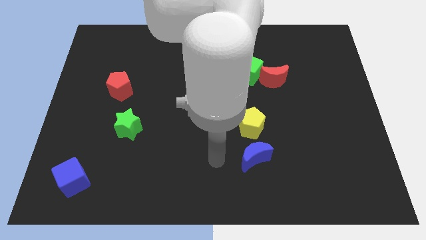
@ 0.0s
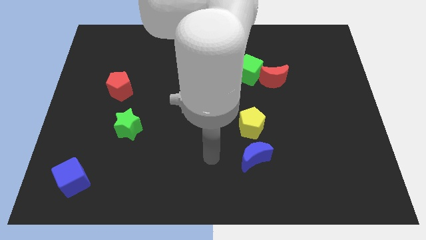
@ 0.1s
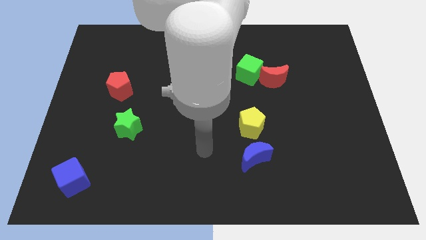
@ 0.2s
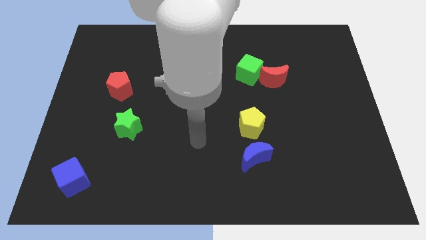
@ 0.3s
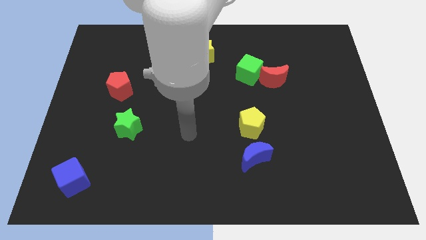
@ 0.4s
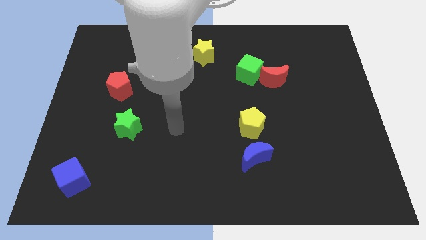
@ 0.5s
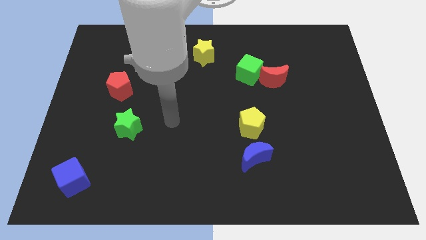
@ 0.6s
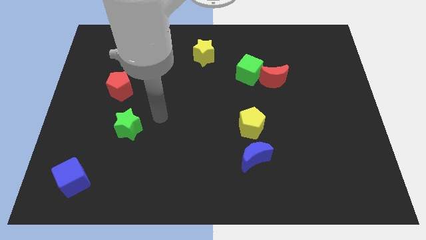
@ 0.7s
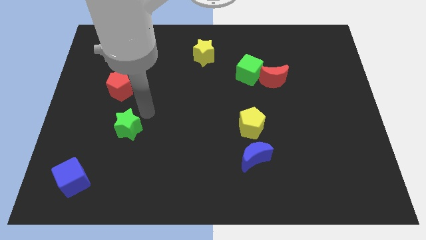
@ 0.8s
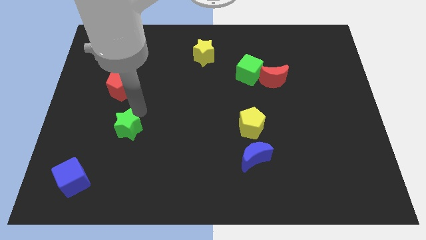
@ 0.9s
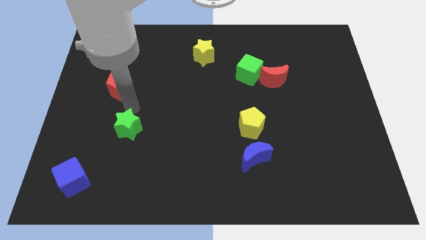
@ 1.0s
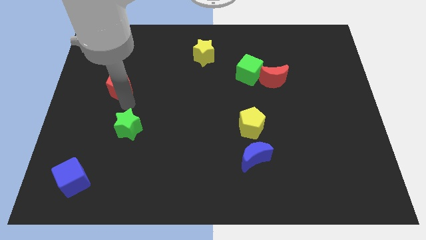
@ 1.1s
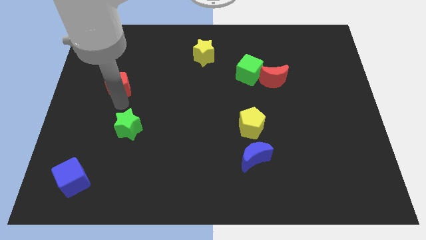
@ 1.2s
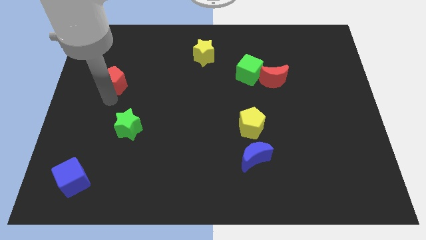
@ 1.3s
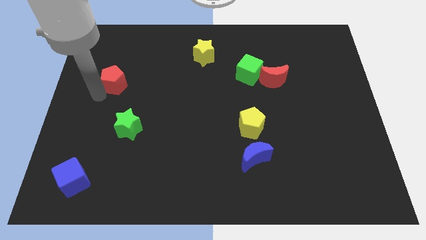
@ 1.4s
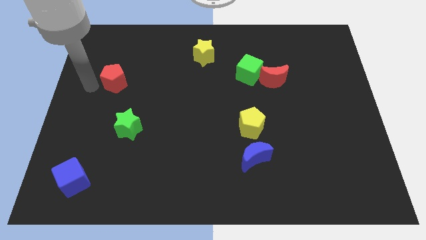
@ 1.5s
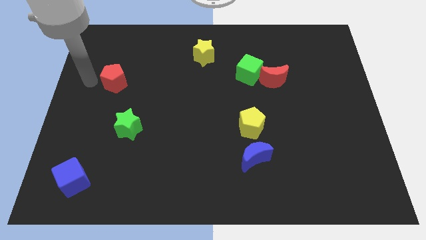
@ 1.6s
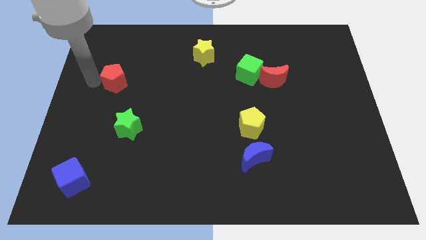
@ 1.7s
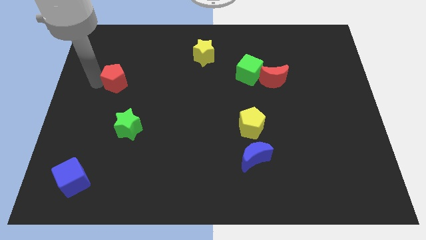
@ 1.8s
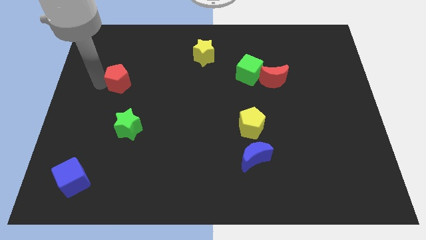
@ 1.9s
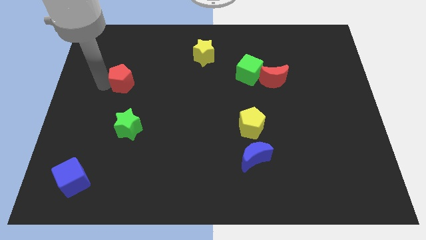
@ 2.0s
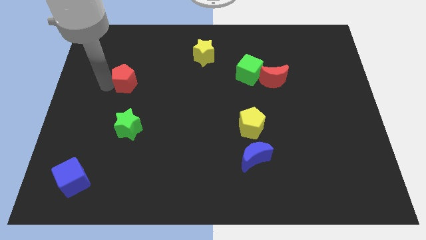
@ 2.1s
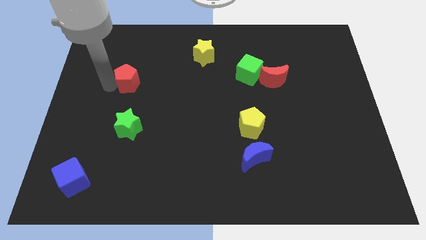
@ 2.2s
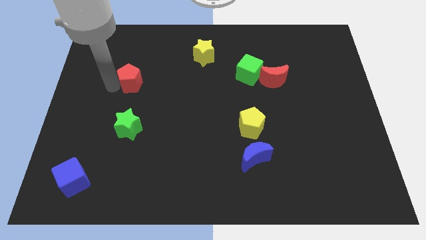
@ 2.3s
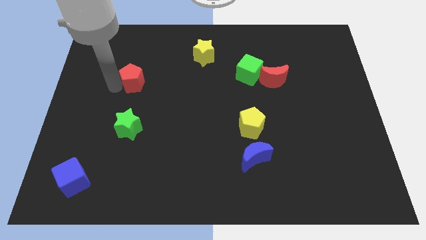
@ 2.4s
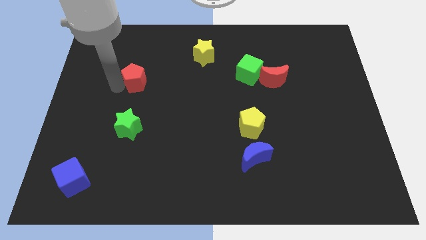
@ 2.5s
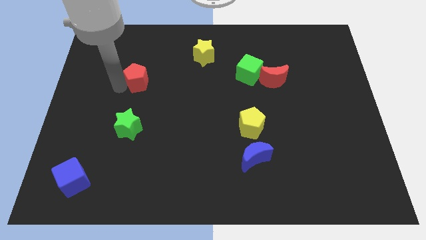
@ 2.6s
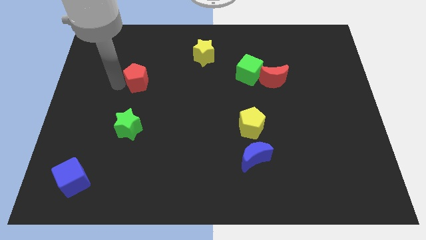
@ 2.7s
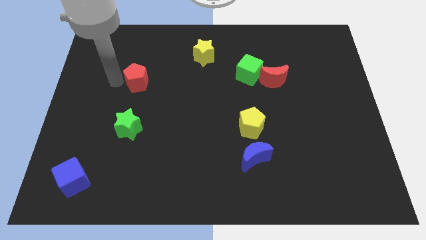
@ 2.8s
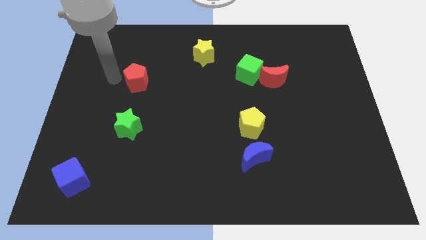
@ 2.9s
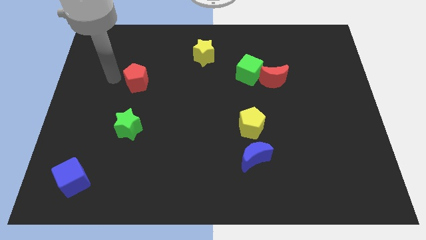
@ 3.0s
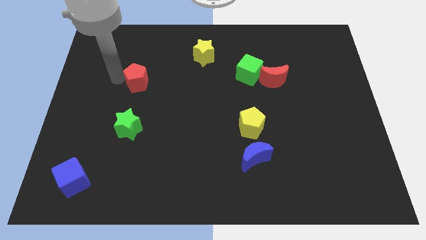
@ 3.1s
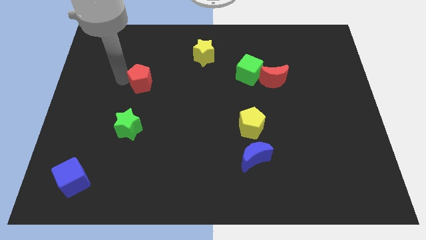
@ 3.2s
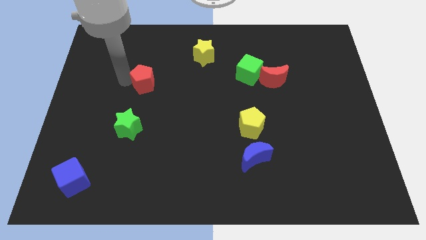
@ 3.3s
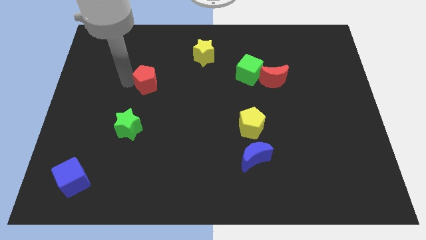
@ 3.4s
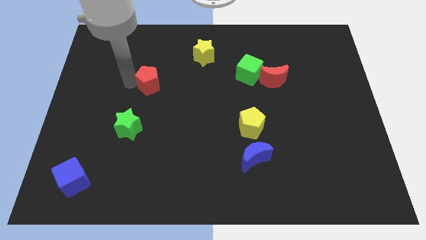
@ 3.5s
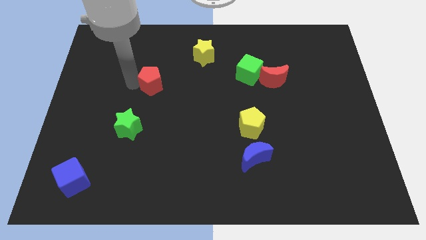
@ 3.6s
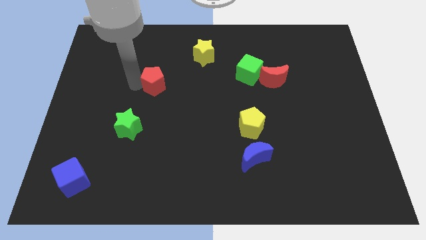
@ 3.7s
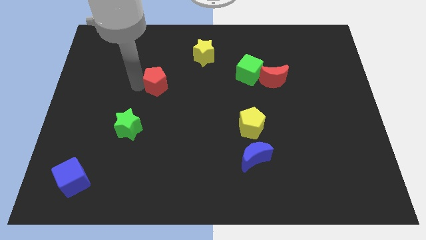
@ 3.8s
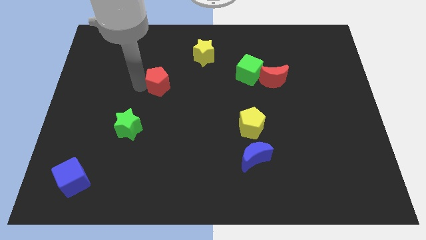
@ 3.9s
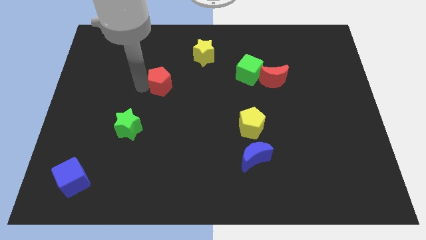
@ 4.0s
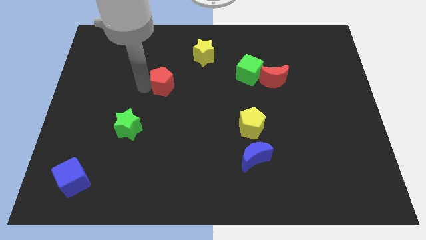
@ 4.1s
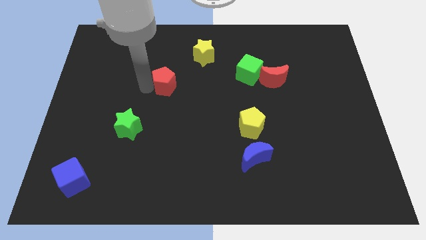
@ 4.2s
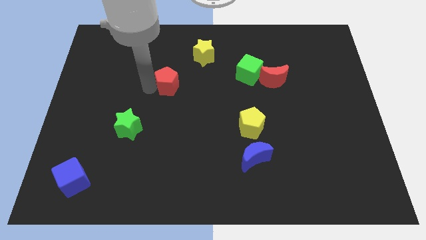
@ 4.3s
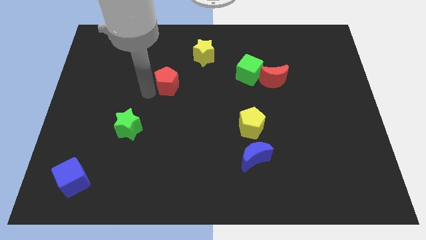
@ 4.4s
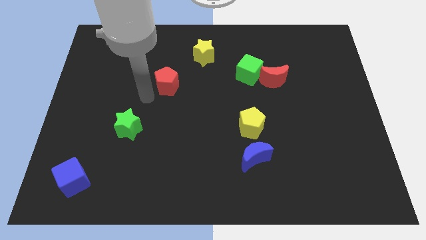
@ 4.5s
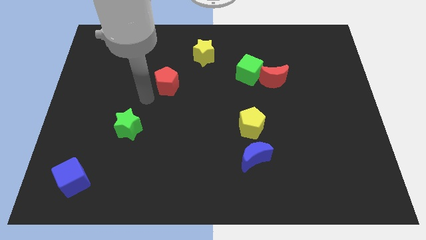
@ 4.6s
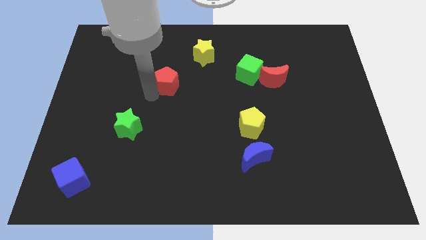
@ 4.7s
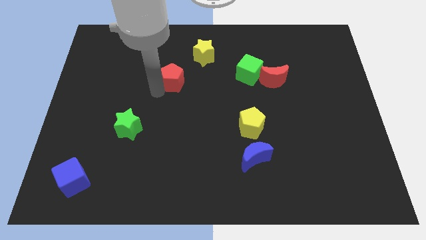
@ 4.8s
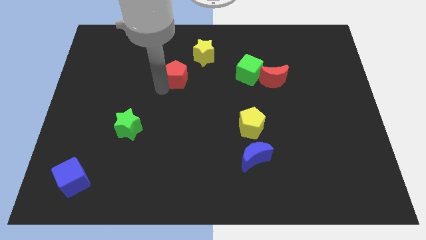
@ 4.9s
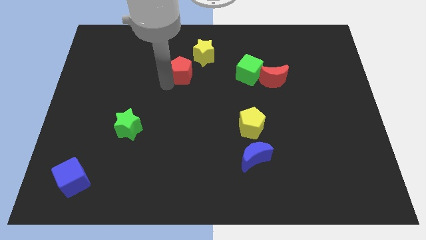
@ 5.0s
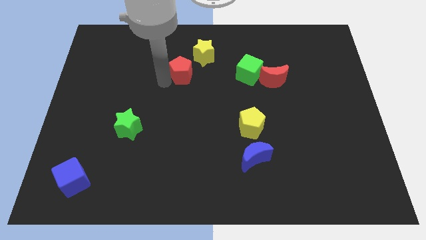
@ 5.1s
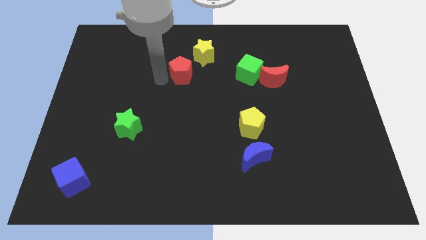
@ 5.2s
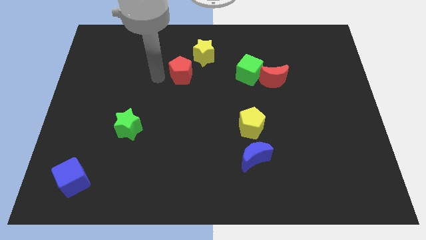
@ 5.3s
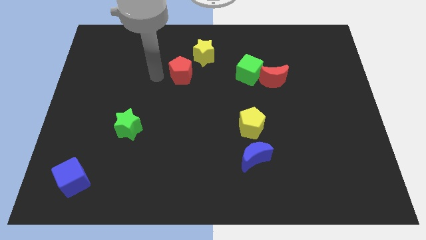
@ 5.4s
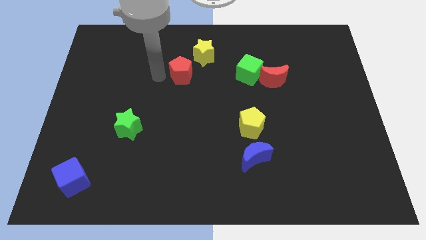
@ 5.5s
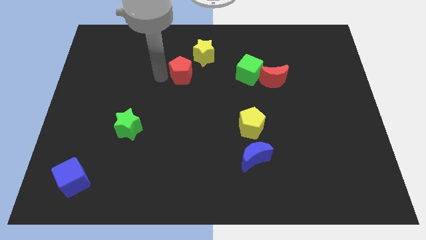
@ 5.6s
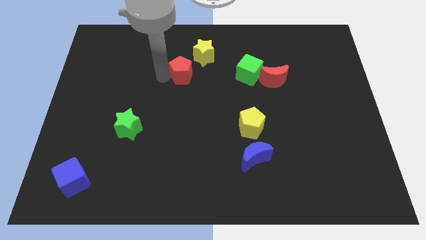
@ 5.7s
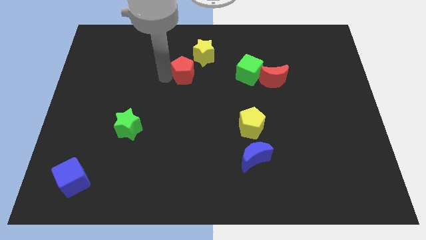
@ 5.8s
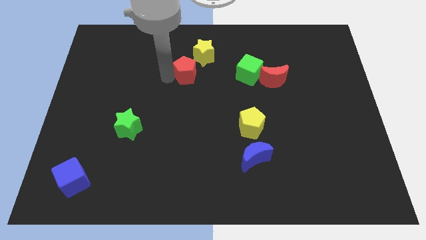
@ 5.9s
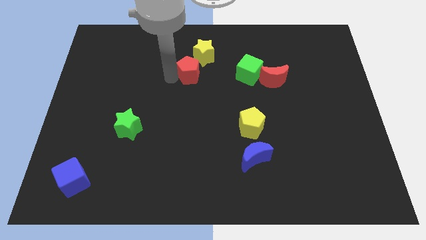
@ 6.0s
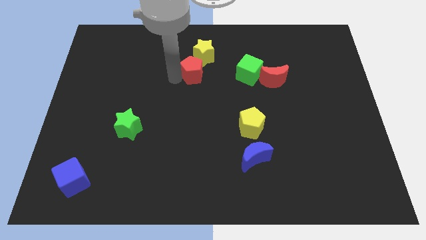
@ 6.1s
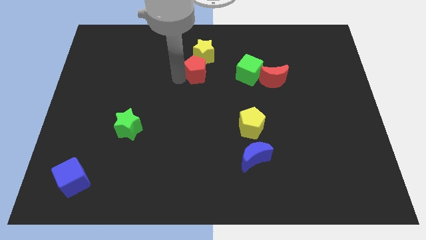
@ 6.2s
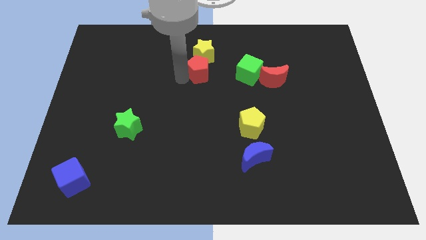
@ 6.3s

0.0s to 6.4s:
move the red pentagon diagonally down and to the right of the yellow star

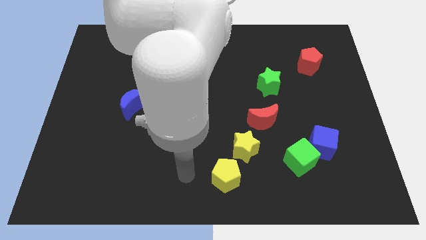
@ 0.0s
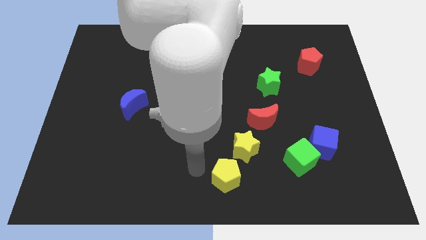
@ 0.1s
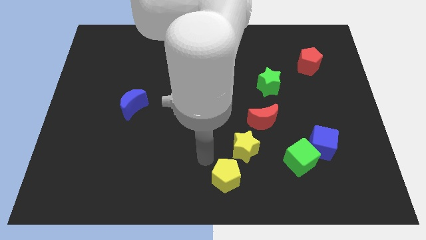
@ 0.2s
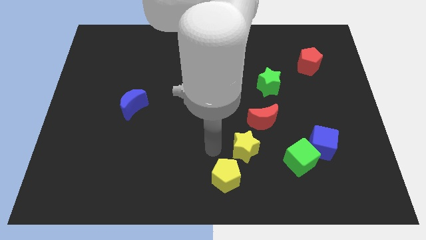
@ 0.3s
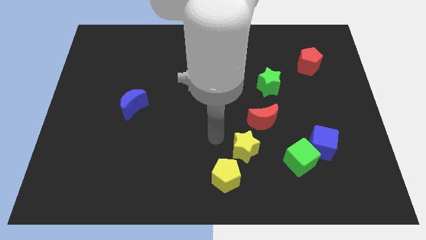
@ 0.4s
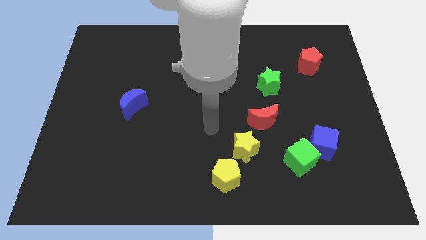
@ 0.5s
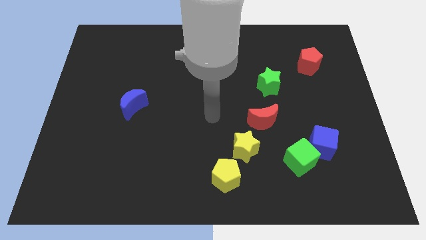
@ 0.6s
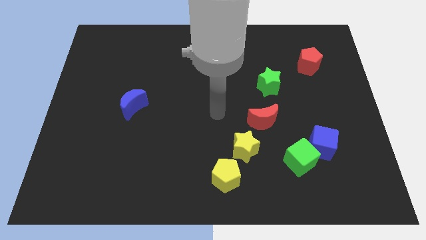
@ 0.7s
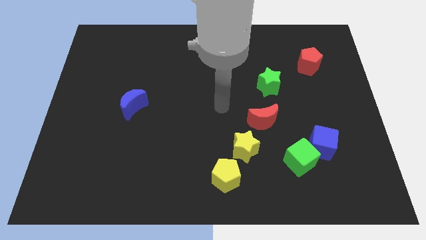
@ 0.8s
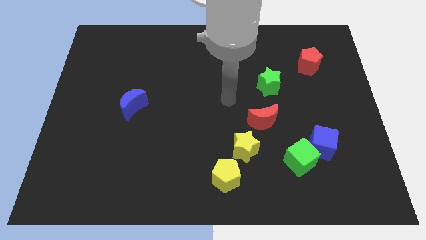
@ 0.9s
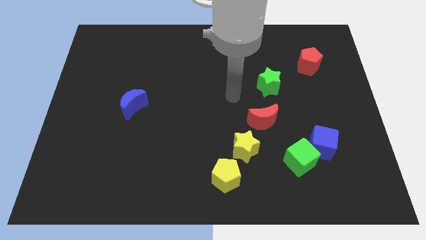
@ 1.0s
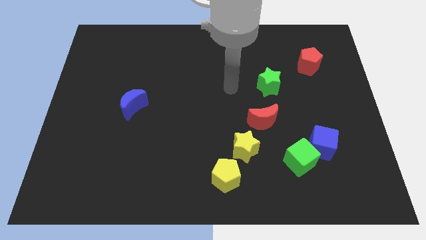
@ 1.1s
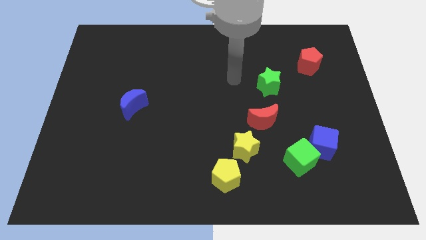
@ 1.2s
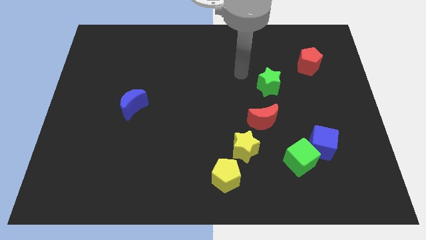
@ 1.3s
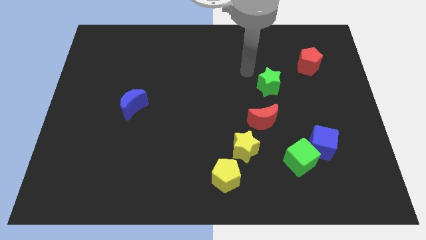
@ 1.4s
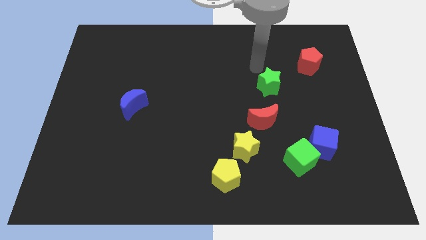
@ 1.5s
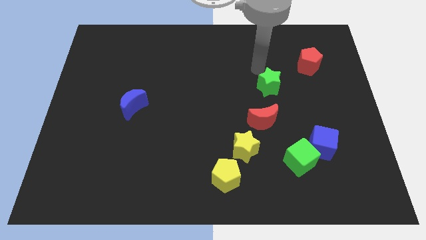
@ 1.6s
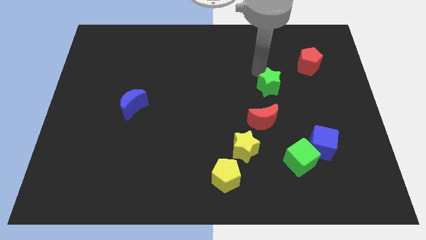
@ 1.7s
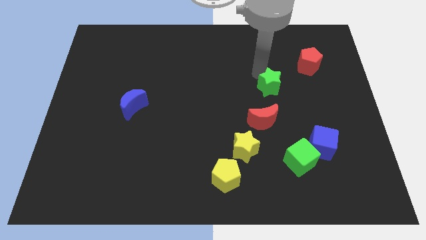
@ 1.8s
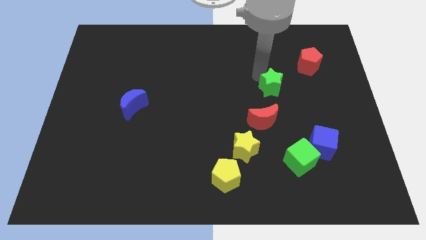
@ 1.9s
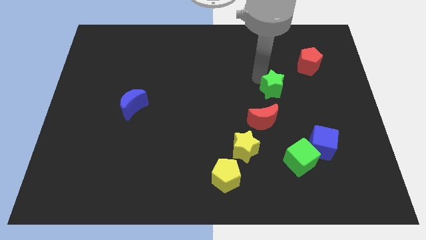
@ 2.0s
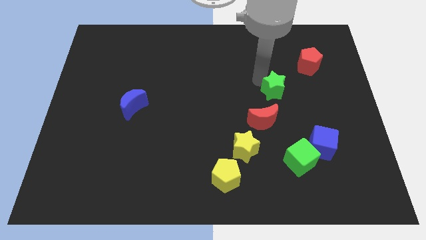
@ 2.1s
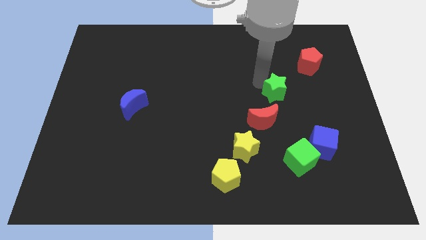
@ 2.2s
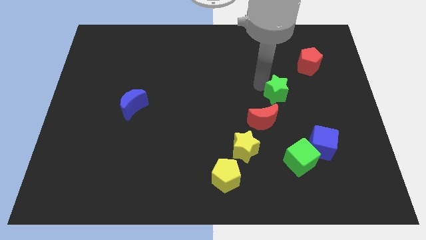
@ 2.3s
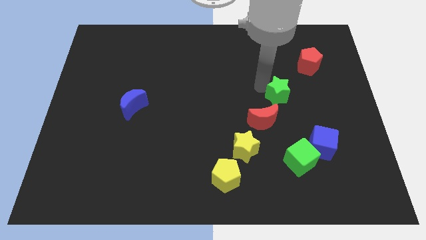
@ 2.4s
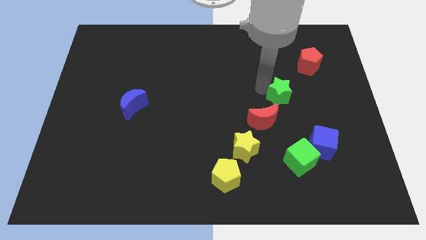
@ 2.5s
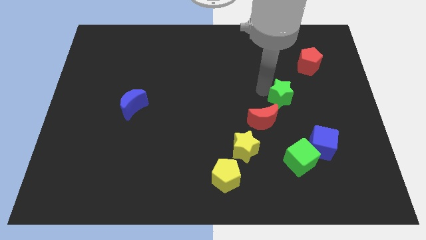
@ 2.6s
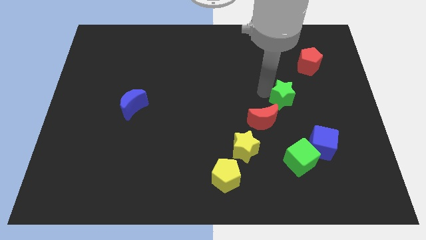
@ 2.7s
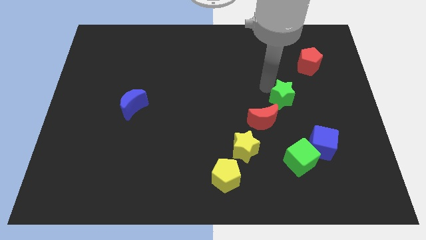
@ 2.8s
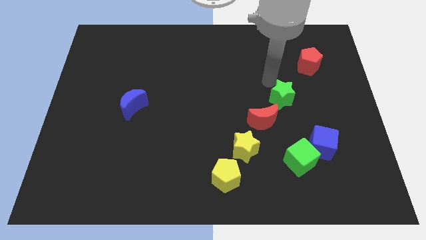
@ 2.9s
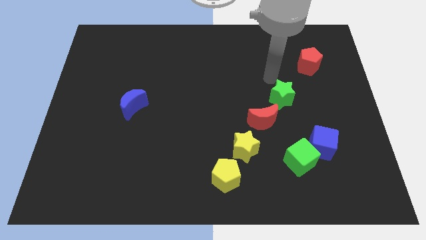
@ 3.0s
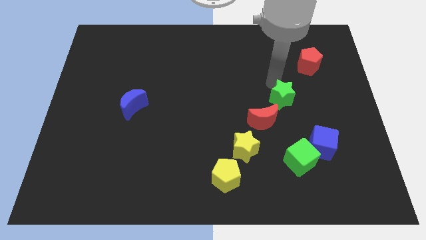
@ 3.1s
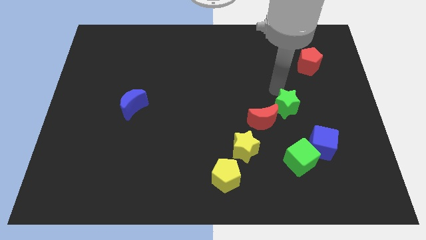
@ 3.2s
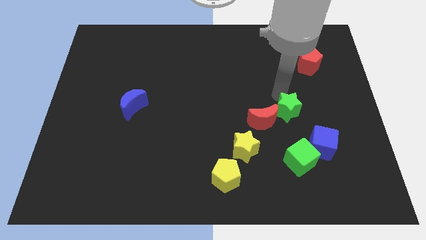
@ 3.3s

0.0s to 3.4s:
slide the green star to the top left of the blue cube
